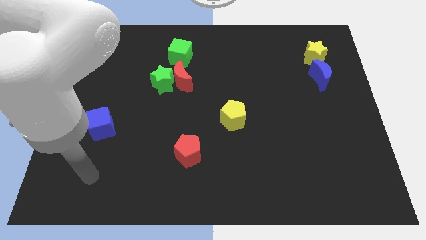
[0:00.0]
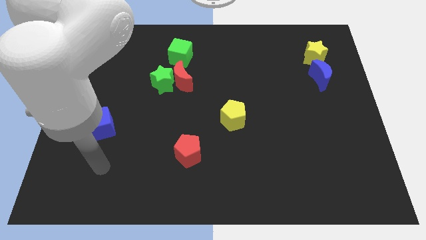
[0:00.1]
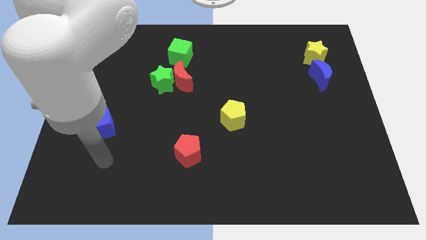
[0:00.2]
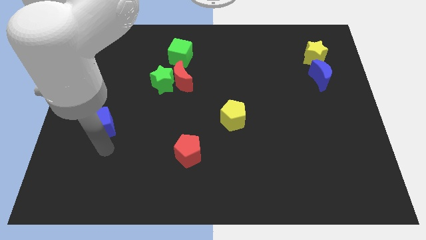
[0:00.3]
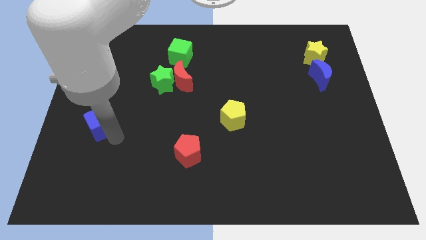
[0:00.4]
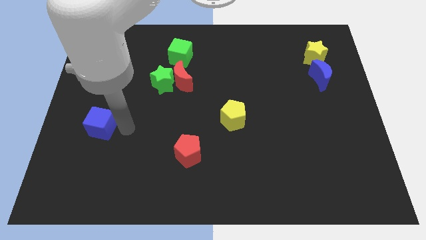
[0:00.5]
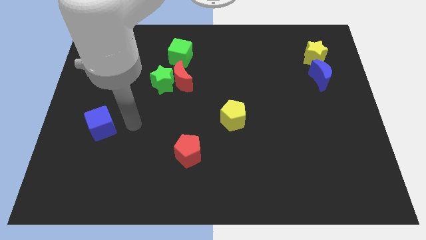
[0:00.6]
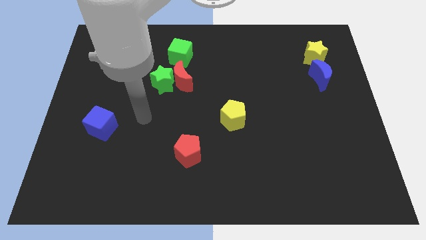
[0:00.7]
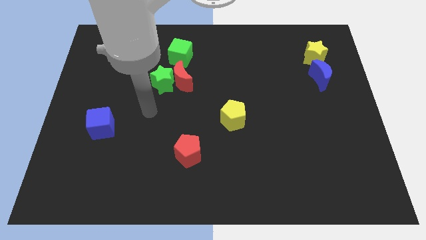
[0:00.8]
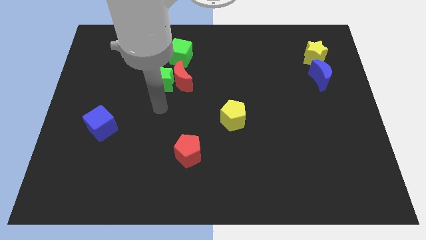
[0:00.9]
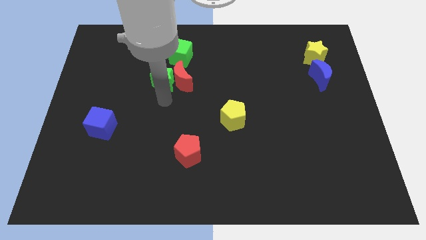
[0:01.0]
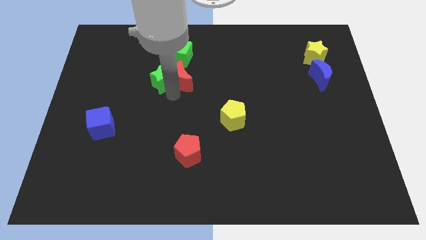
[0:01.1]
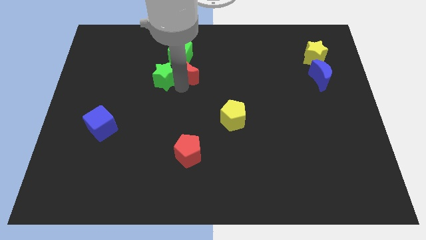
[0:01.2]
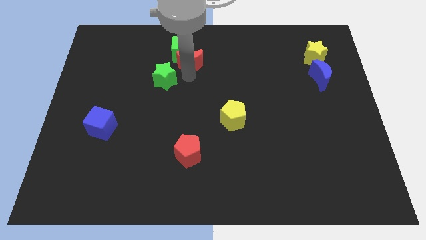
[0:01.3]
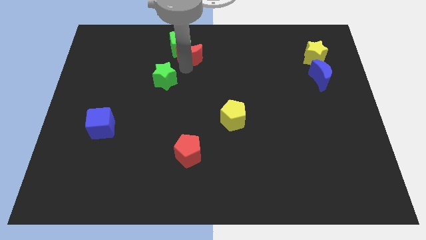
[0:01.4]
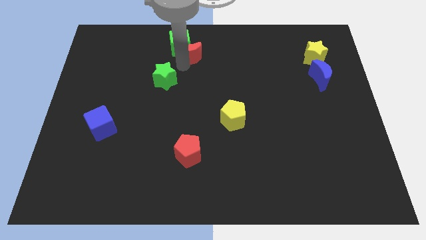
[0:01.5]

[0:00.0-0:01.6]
pull the green star apart from the red moon

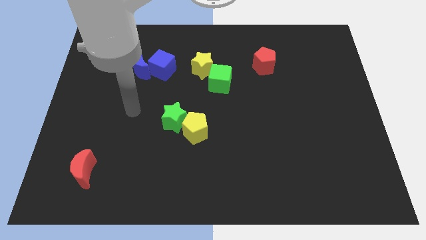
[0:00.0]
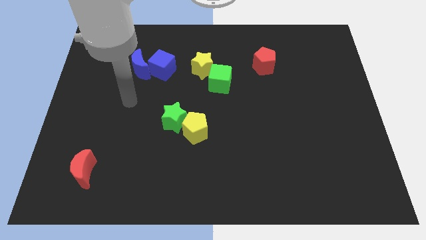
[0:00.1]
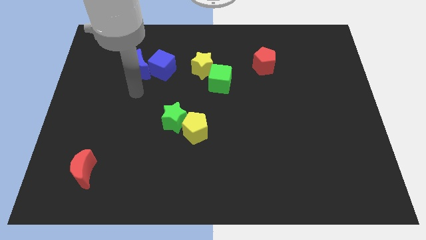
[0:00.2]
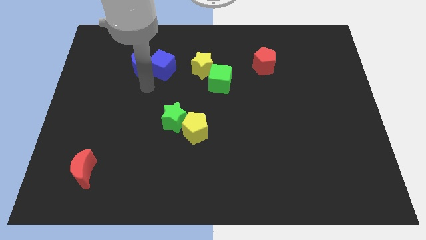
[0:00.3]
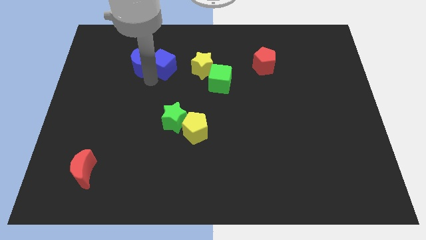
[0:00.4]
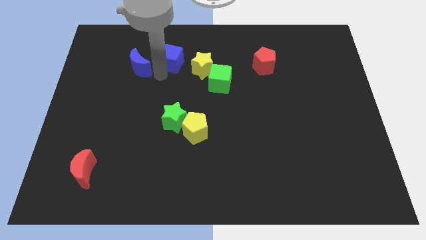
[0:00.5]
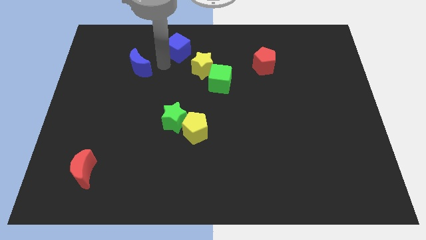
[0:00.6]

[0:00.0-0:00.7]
separate the blue moon from the blue cube

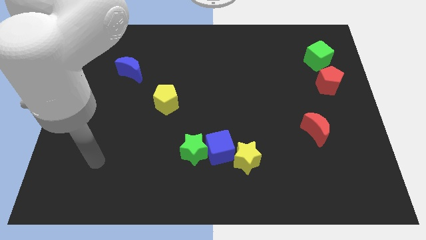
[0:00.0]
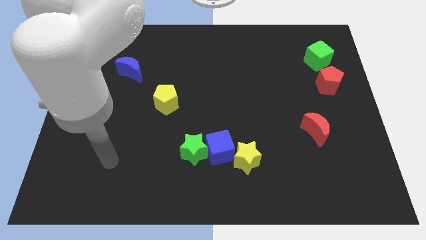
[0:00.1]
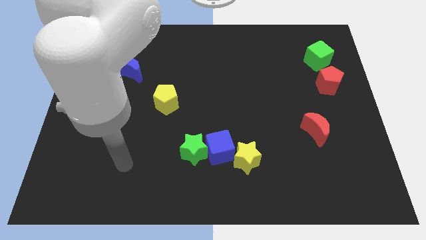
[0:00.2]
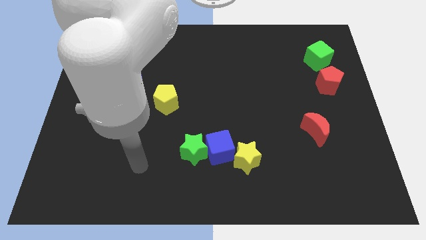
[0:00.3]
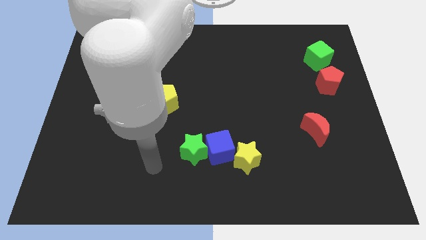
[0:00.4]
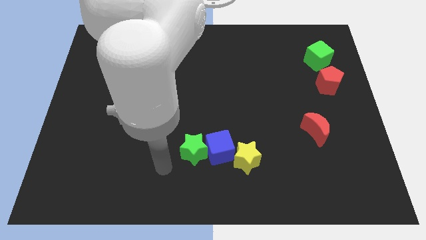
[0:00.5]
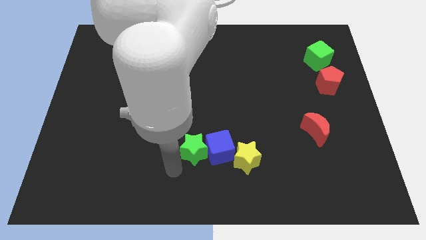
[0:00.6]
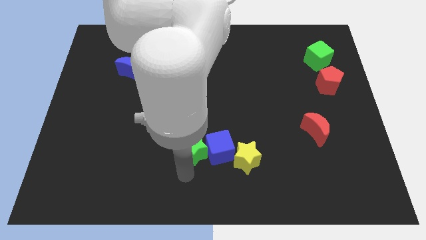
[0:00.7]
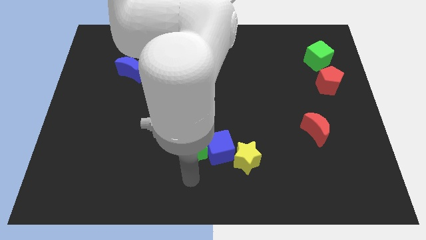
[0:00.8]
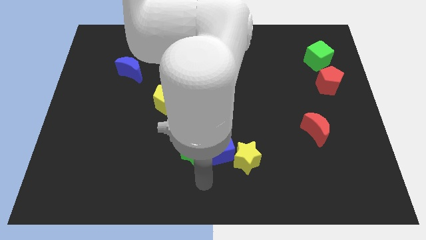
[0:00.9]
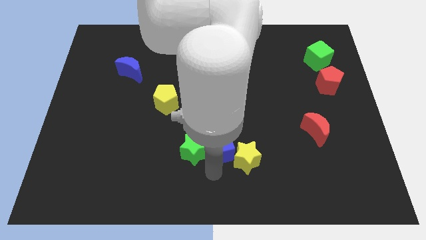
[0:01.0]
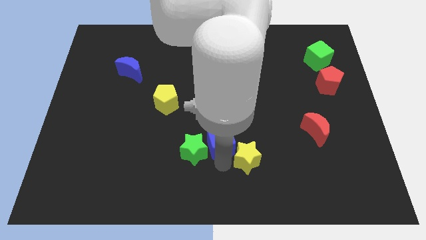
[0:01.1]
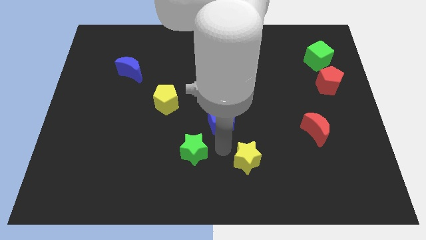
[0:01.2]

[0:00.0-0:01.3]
separate the green star from the blue cube

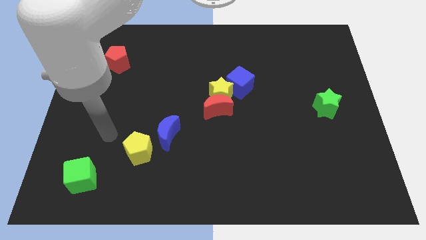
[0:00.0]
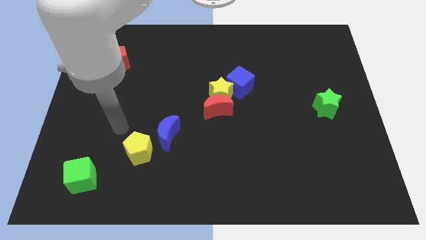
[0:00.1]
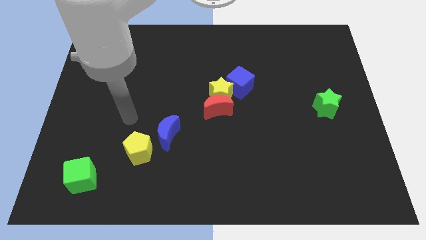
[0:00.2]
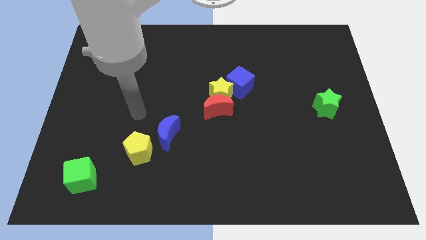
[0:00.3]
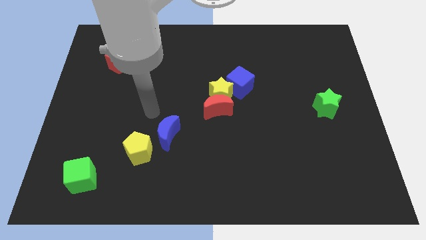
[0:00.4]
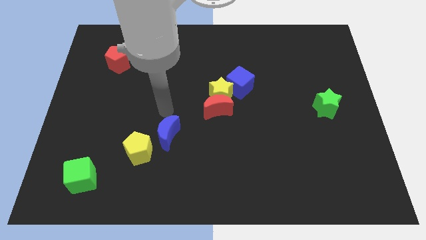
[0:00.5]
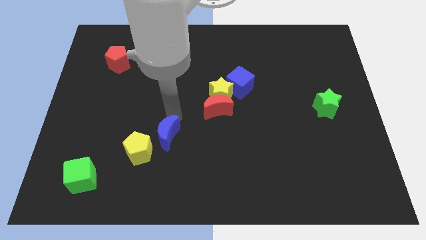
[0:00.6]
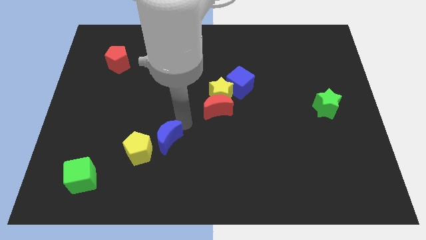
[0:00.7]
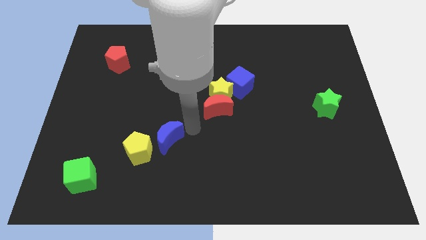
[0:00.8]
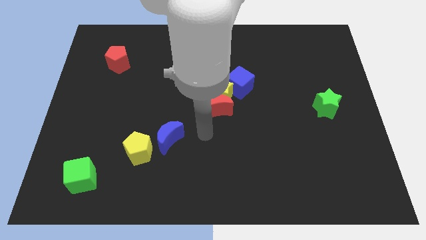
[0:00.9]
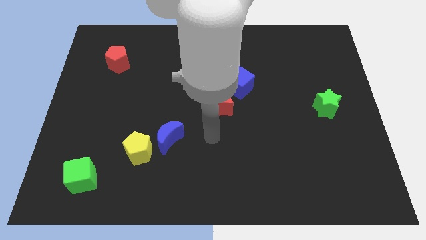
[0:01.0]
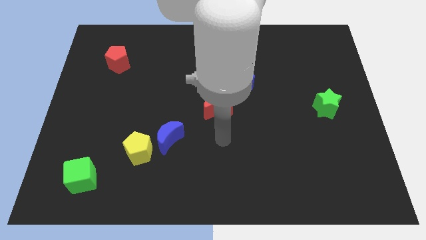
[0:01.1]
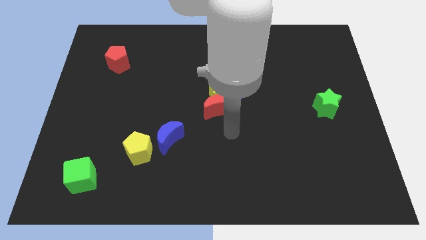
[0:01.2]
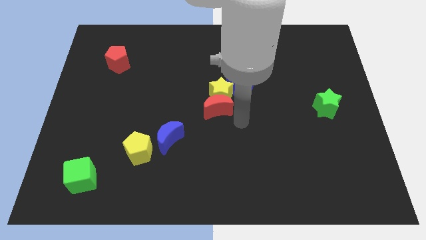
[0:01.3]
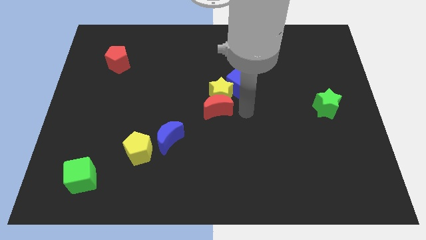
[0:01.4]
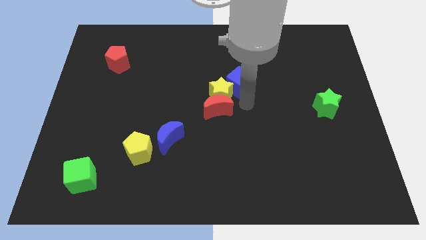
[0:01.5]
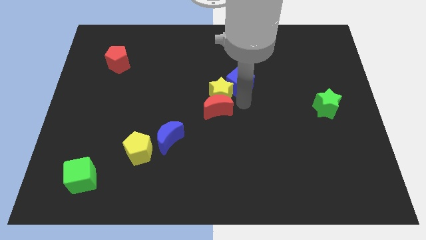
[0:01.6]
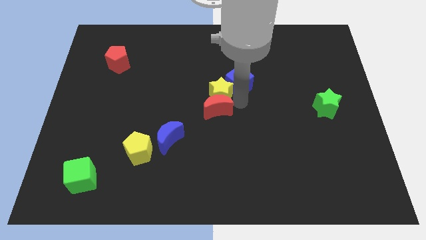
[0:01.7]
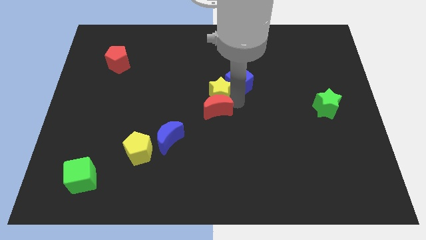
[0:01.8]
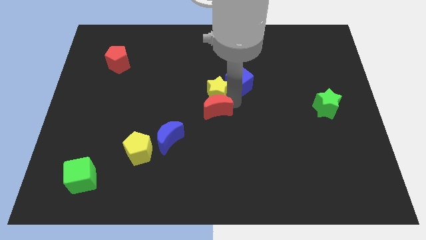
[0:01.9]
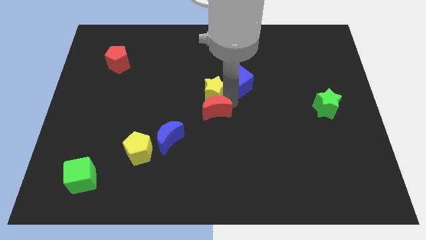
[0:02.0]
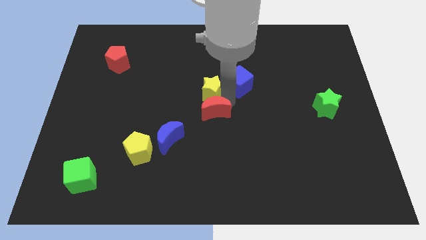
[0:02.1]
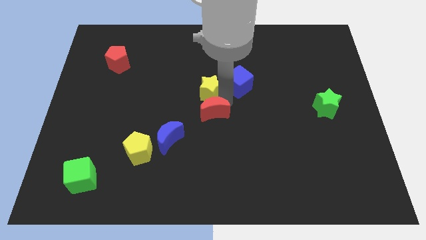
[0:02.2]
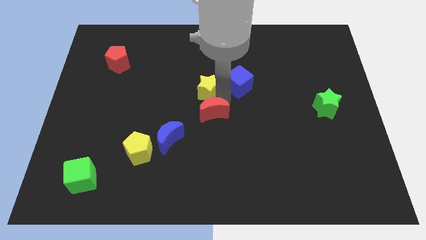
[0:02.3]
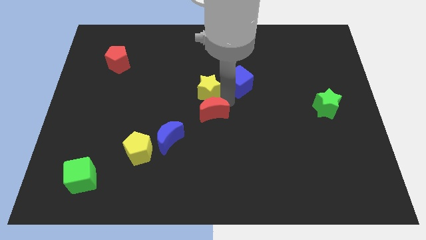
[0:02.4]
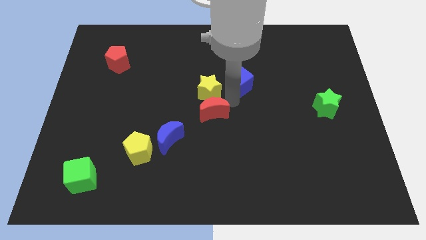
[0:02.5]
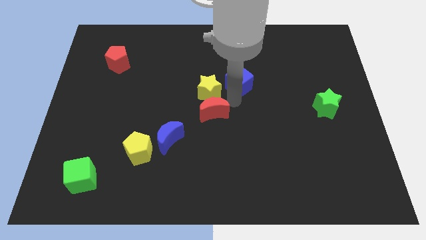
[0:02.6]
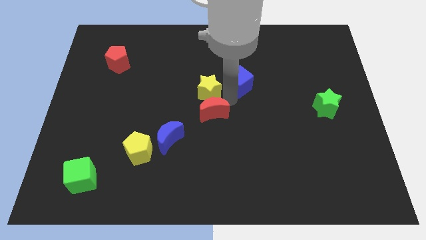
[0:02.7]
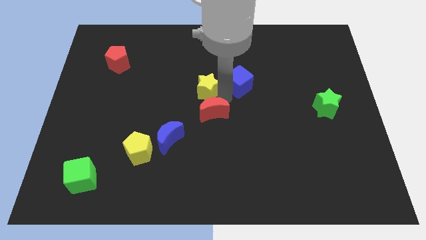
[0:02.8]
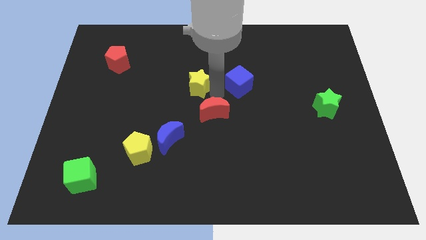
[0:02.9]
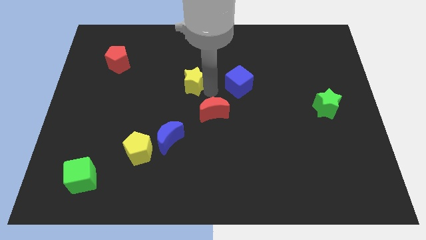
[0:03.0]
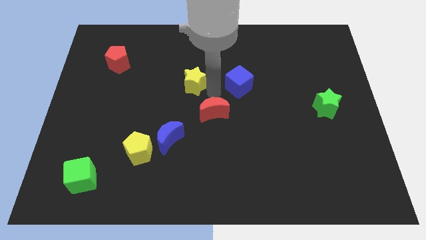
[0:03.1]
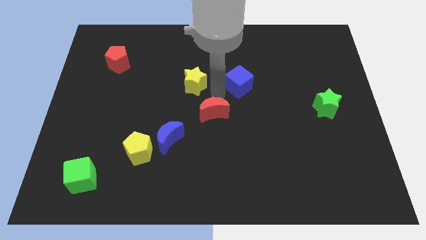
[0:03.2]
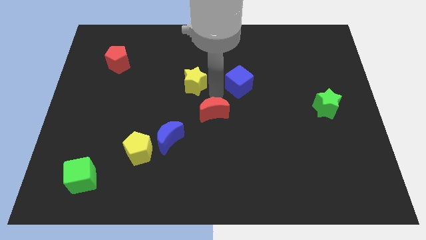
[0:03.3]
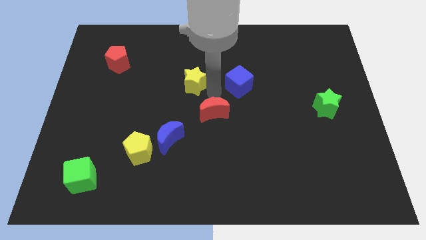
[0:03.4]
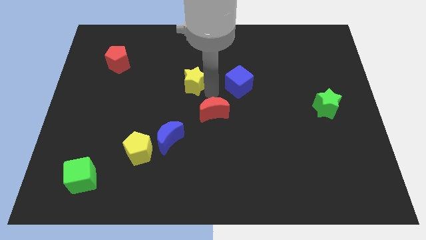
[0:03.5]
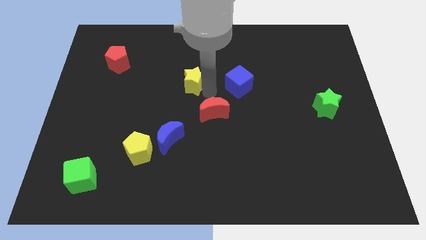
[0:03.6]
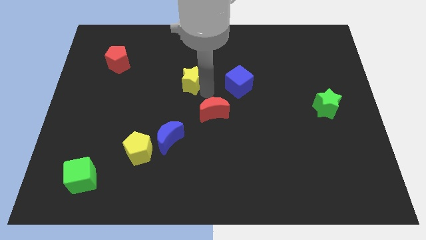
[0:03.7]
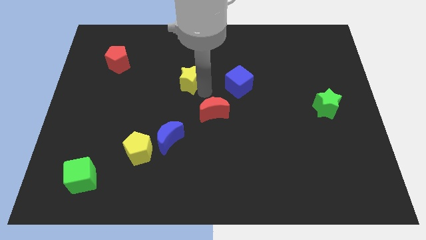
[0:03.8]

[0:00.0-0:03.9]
move the yellow star away from the red moon and blue cube

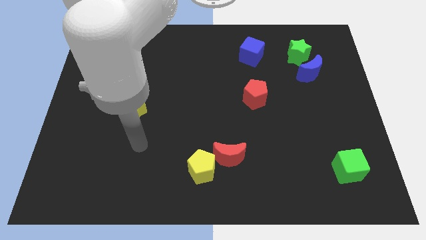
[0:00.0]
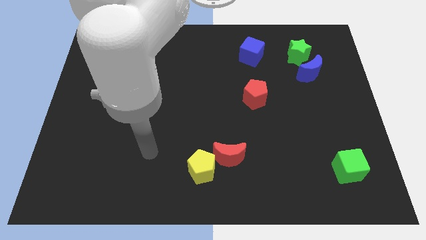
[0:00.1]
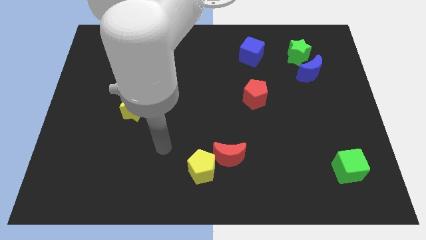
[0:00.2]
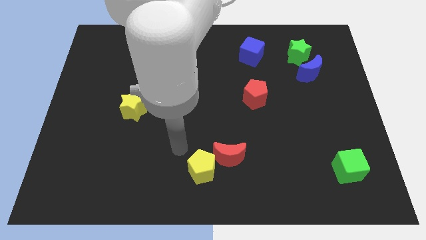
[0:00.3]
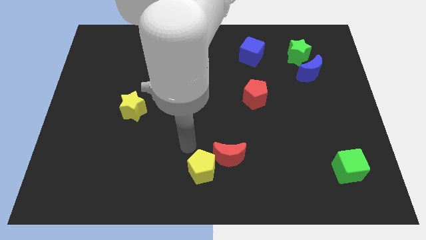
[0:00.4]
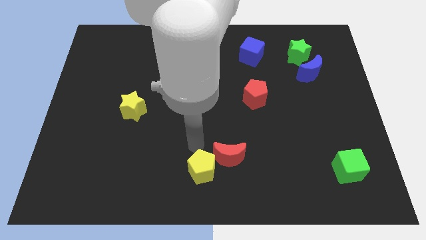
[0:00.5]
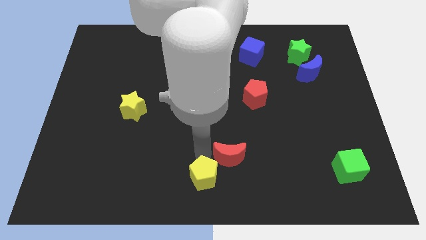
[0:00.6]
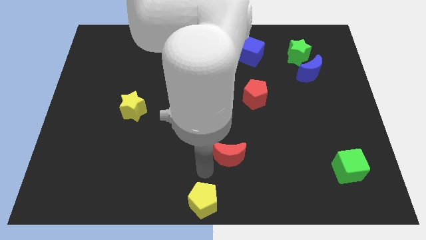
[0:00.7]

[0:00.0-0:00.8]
pull the red moon apart from the yellow pentagon

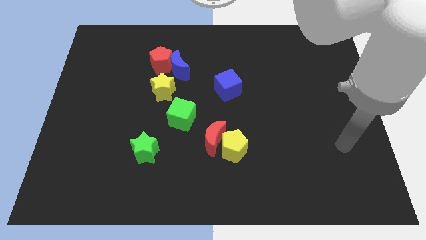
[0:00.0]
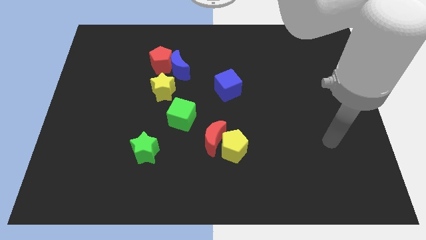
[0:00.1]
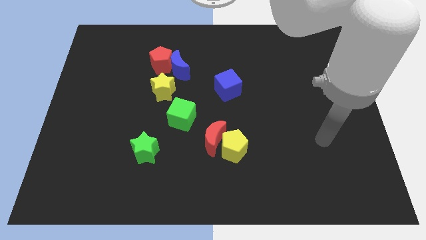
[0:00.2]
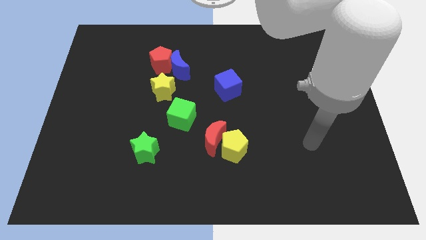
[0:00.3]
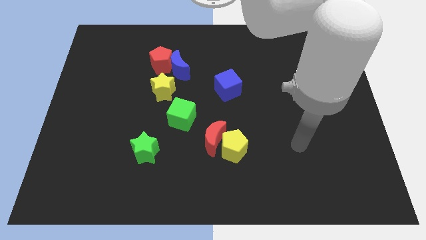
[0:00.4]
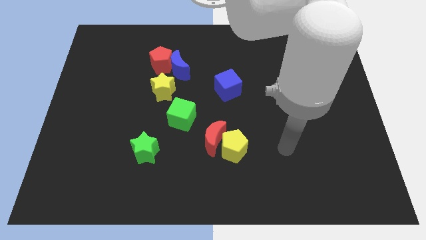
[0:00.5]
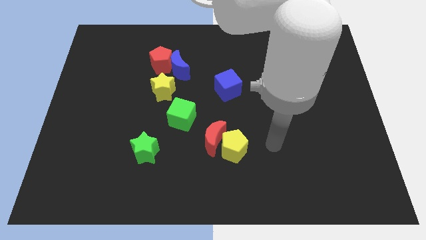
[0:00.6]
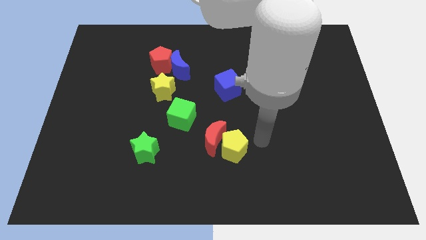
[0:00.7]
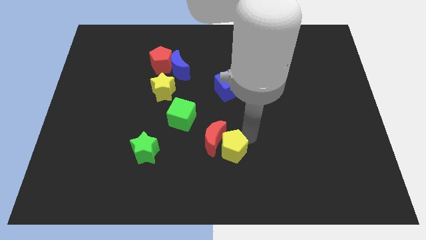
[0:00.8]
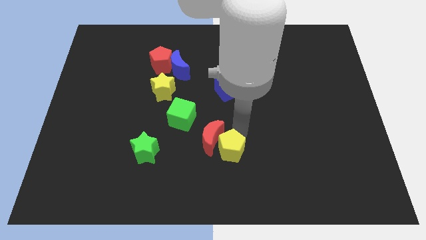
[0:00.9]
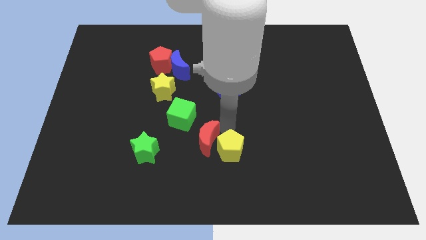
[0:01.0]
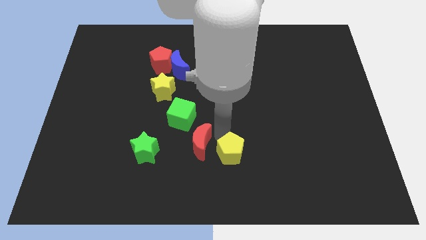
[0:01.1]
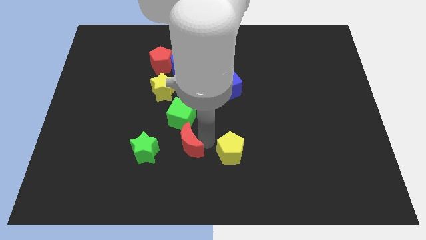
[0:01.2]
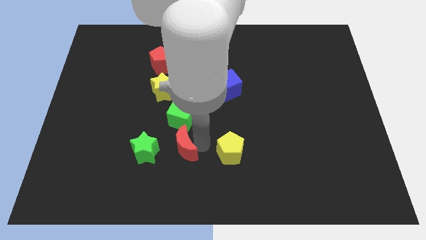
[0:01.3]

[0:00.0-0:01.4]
separate the yellow pentagon from the red moon
